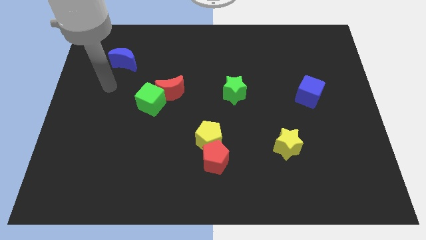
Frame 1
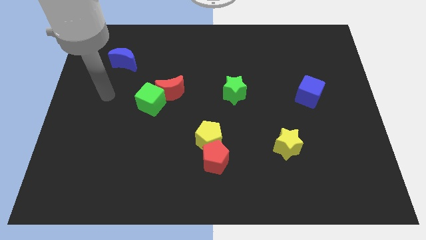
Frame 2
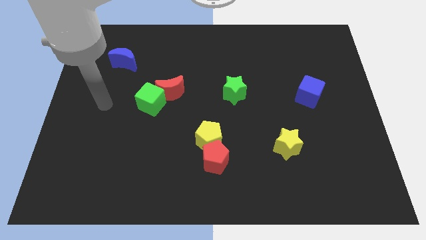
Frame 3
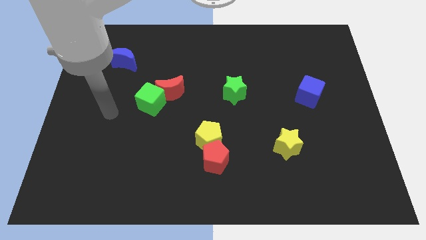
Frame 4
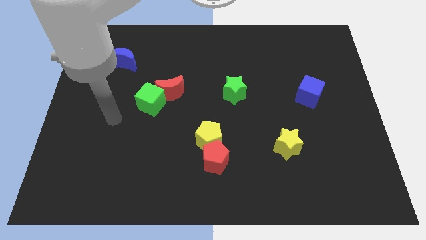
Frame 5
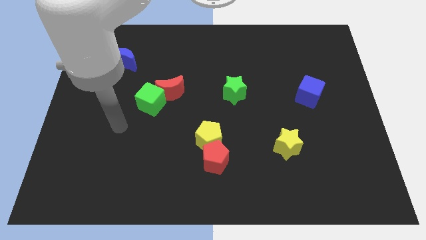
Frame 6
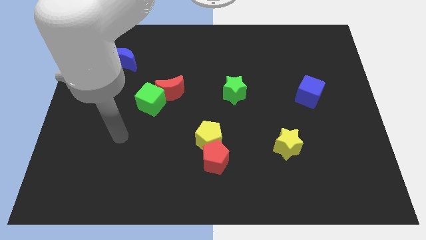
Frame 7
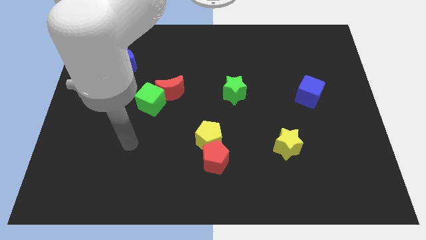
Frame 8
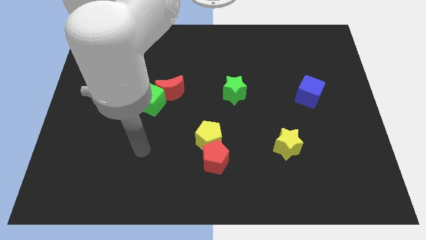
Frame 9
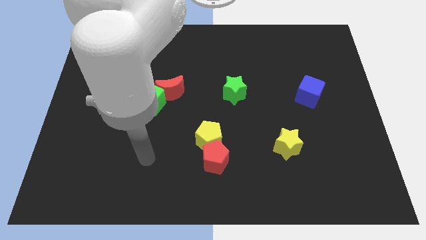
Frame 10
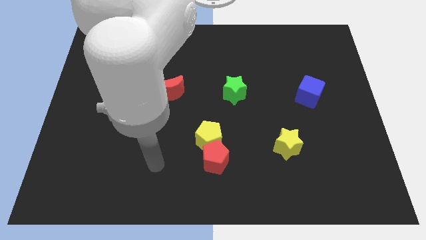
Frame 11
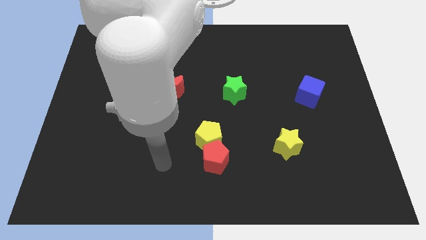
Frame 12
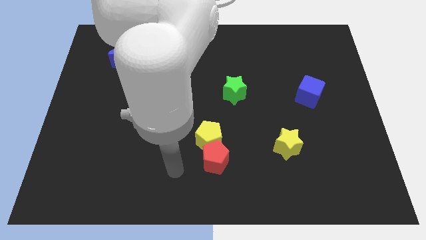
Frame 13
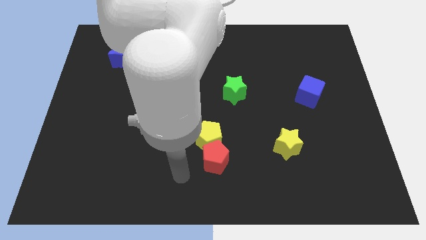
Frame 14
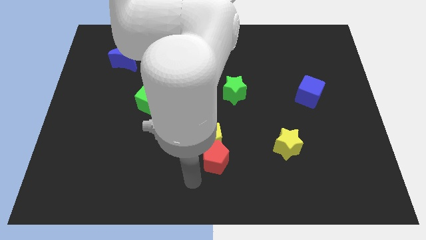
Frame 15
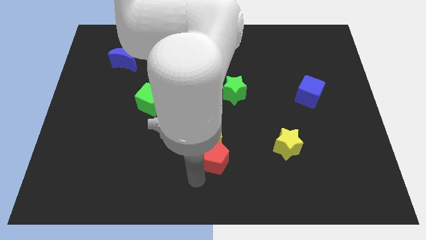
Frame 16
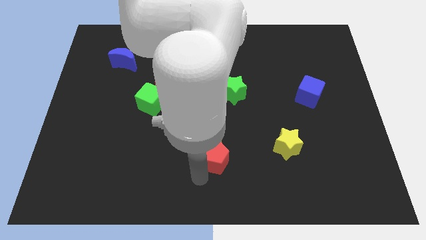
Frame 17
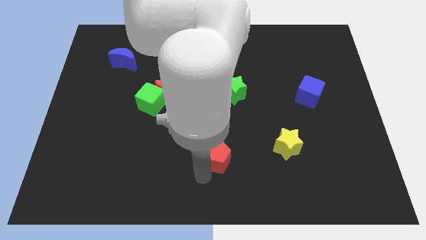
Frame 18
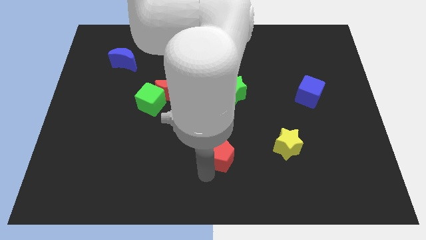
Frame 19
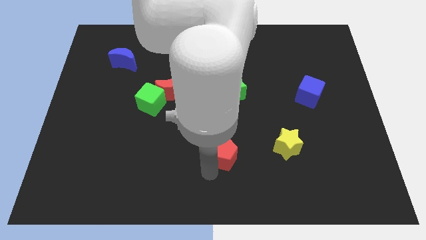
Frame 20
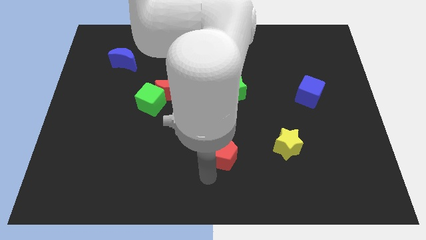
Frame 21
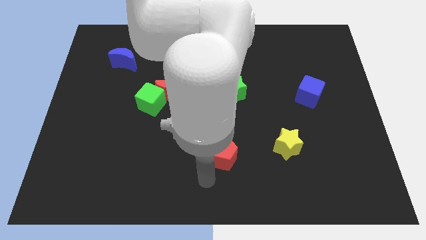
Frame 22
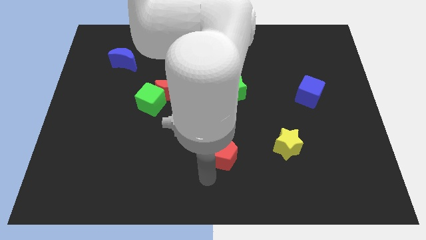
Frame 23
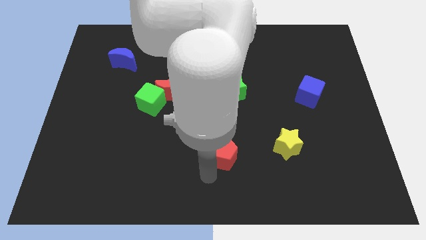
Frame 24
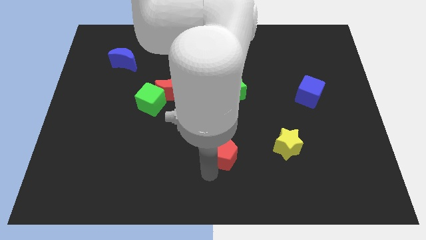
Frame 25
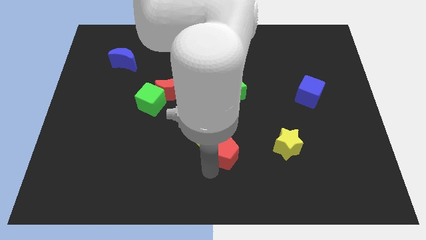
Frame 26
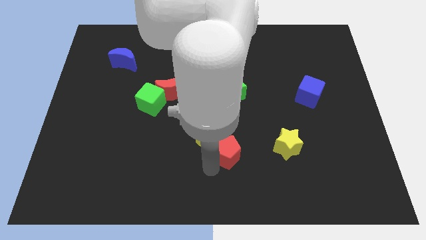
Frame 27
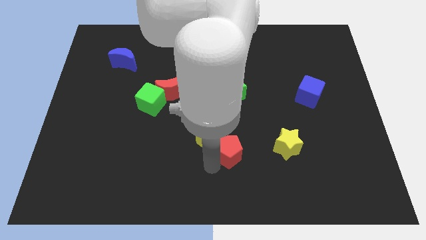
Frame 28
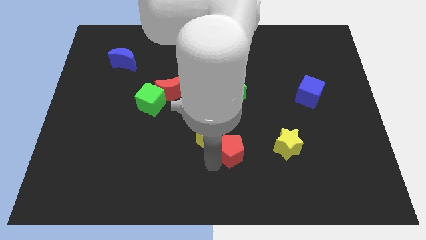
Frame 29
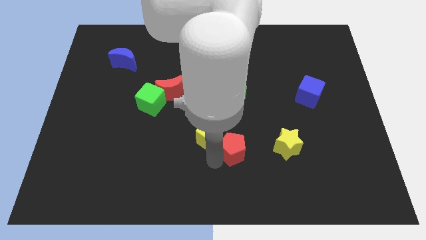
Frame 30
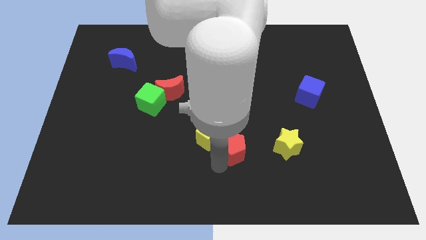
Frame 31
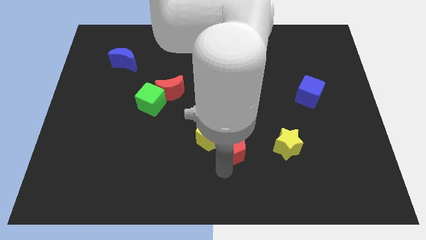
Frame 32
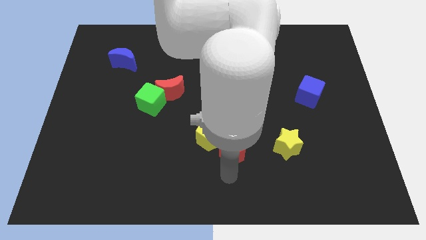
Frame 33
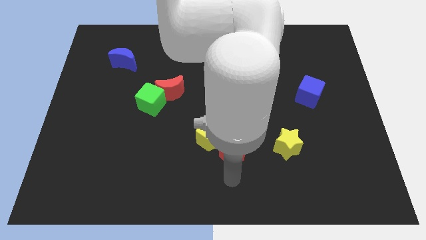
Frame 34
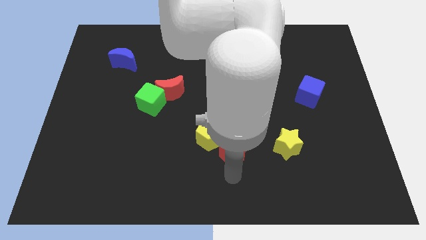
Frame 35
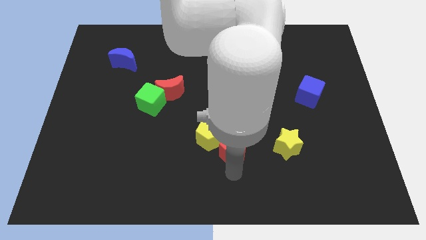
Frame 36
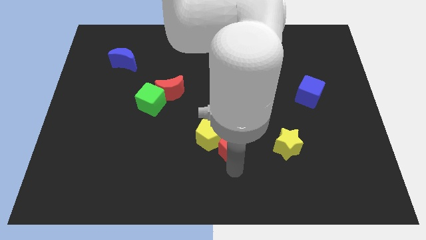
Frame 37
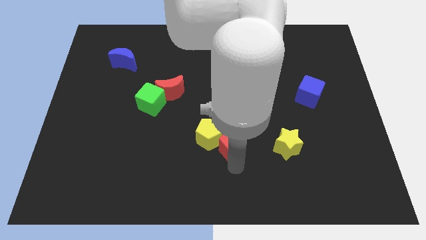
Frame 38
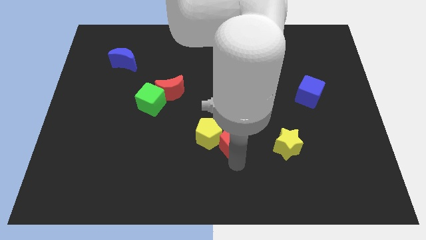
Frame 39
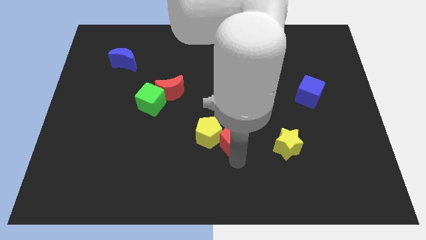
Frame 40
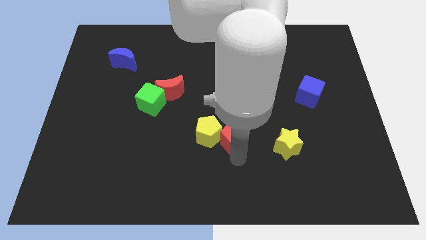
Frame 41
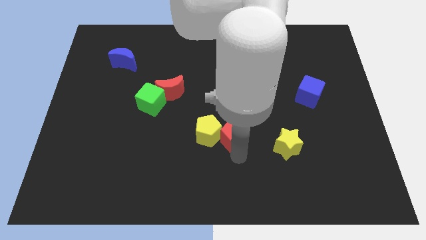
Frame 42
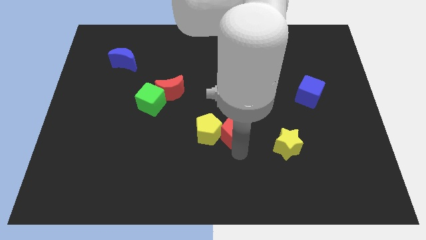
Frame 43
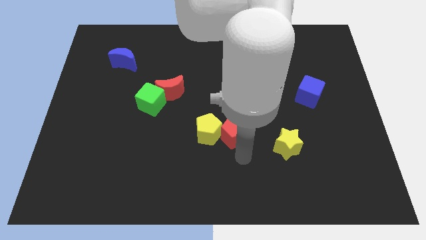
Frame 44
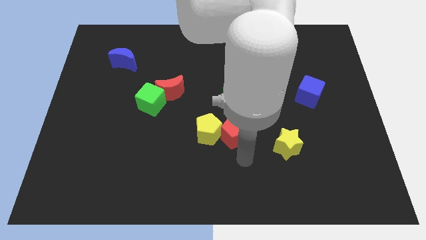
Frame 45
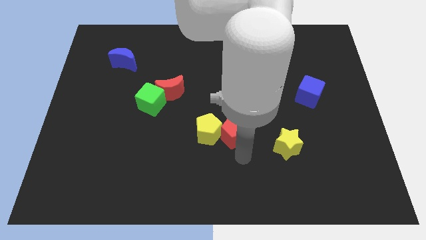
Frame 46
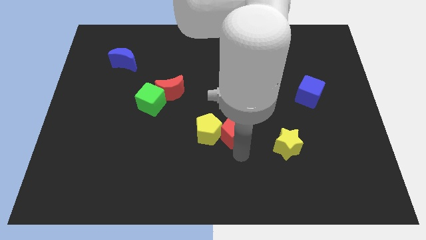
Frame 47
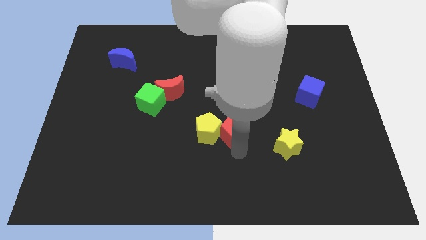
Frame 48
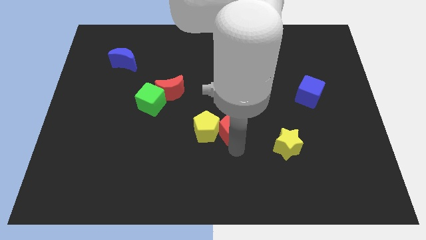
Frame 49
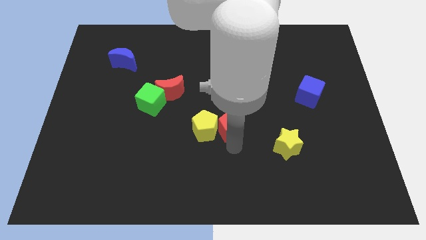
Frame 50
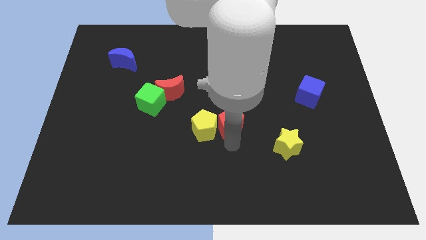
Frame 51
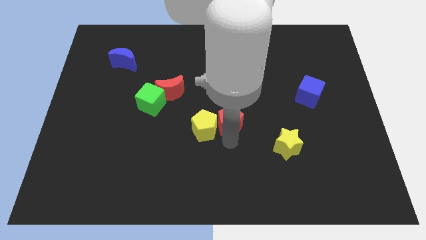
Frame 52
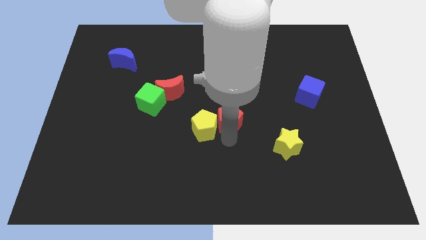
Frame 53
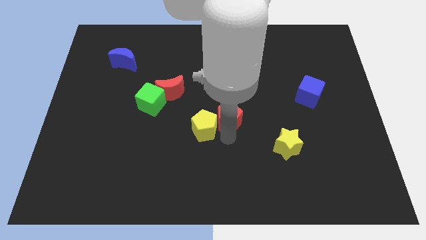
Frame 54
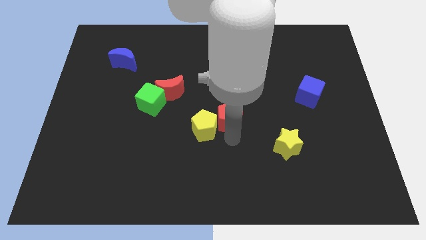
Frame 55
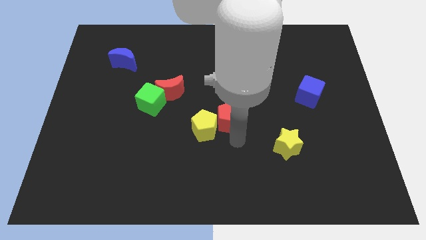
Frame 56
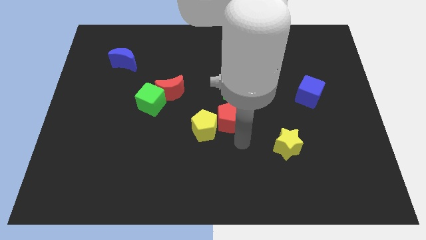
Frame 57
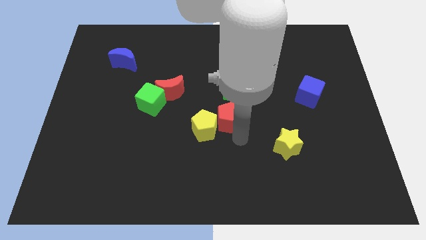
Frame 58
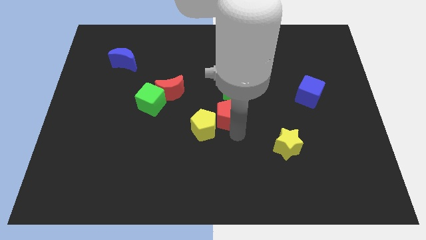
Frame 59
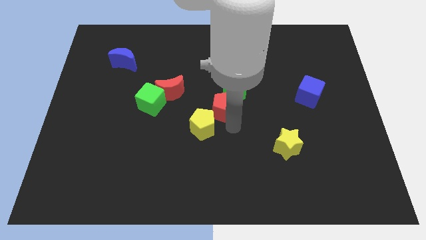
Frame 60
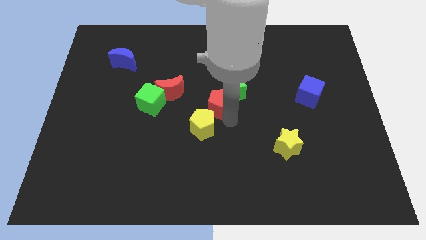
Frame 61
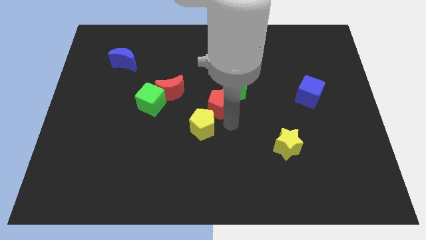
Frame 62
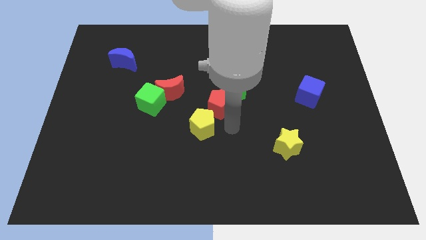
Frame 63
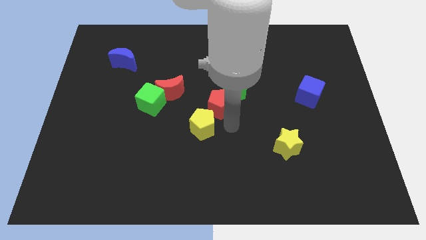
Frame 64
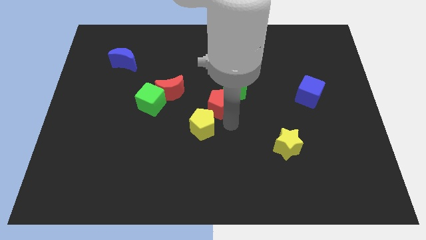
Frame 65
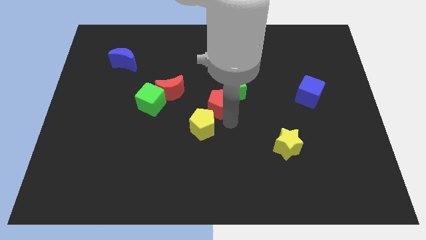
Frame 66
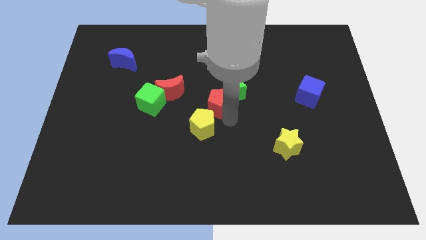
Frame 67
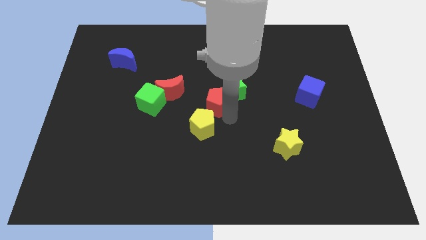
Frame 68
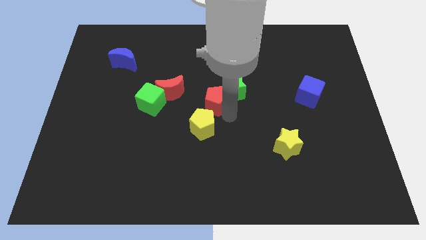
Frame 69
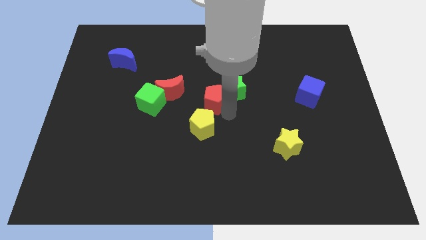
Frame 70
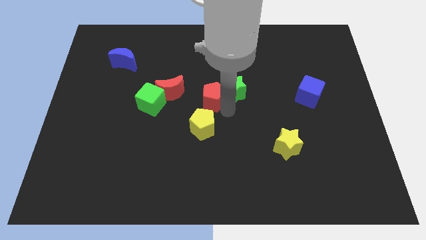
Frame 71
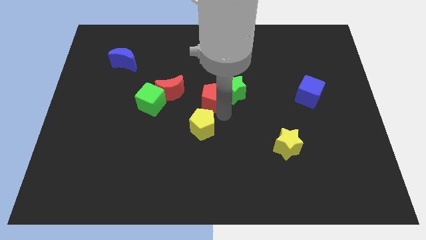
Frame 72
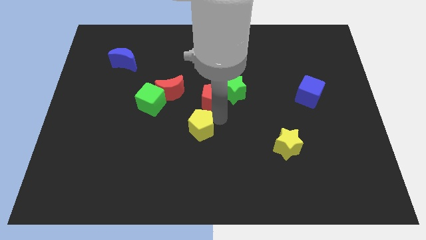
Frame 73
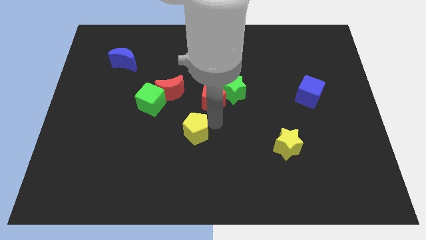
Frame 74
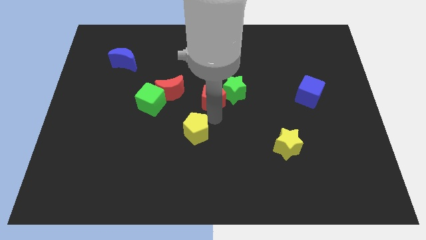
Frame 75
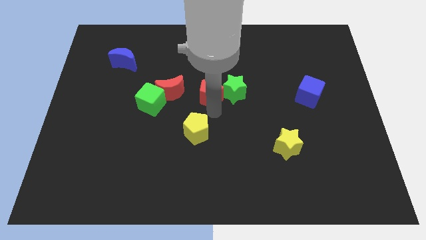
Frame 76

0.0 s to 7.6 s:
put the red pentagon diagonally up and to the left of the green star
